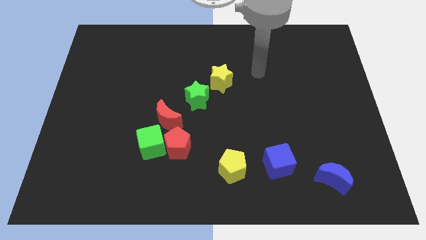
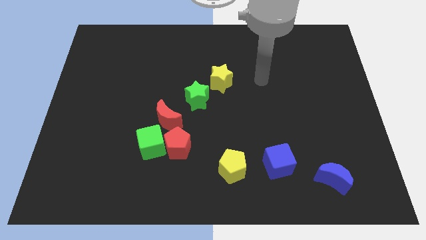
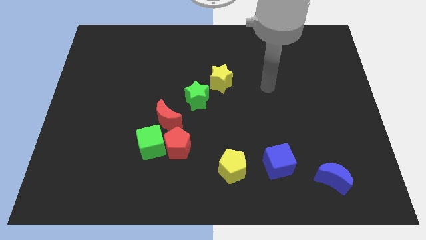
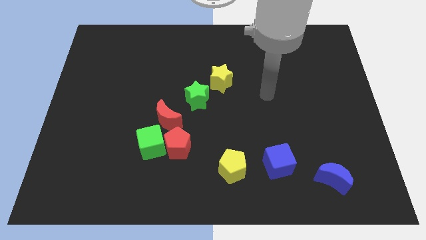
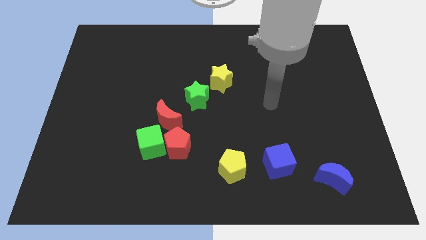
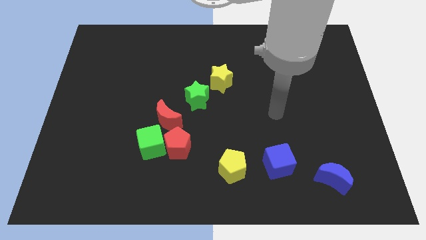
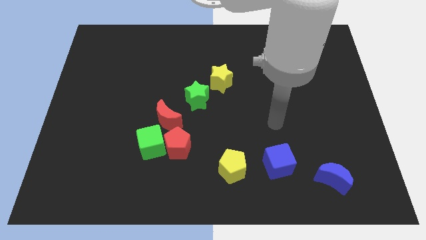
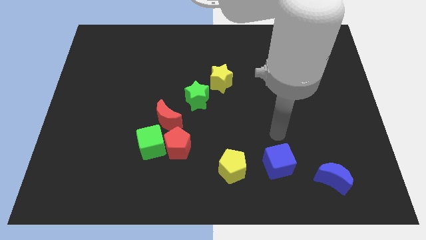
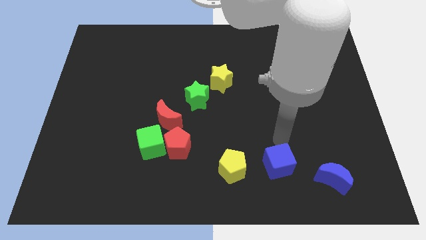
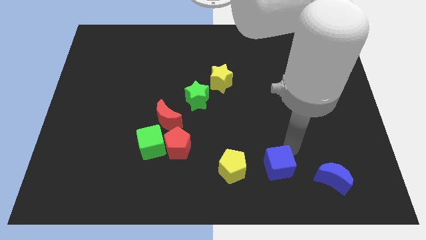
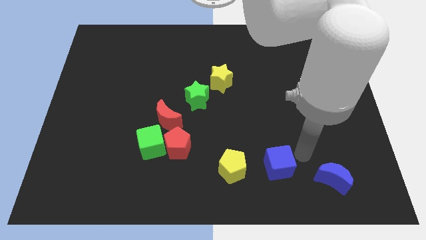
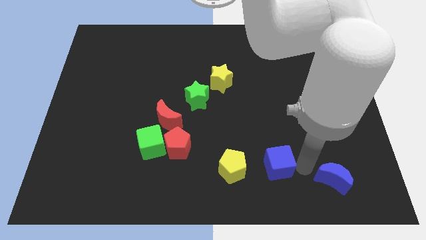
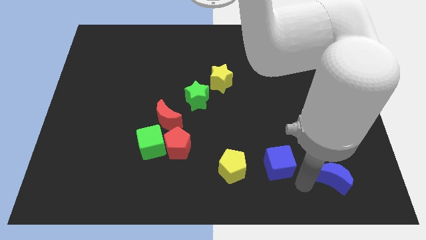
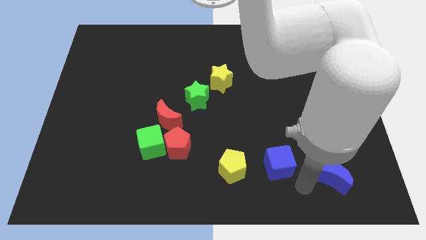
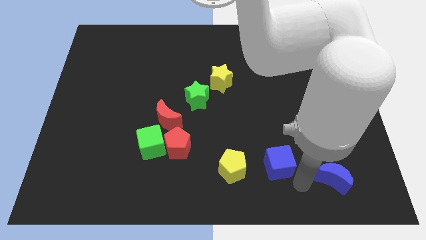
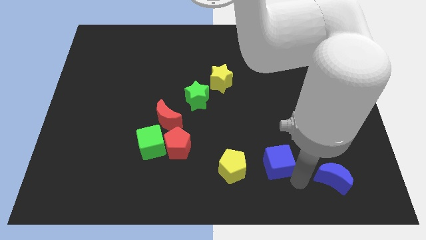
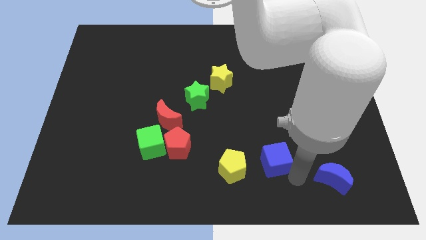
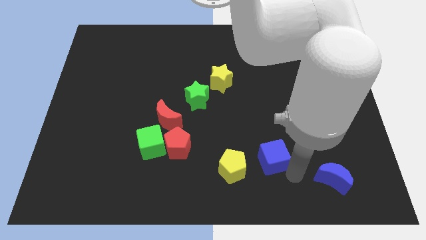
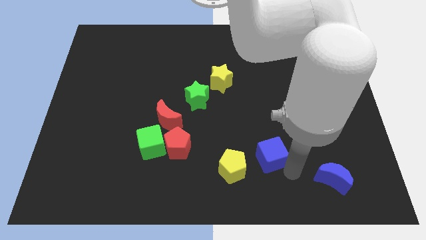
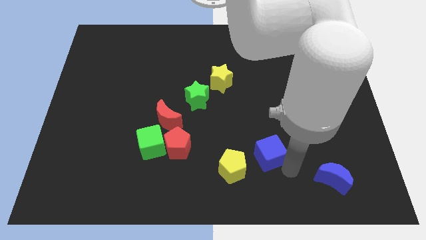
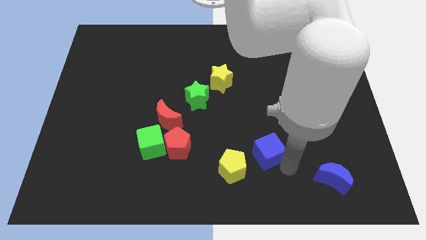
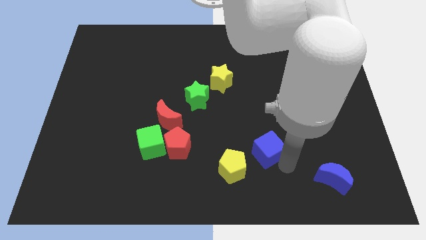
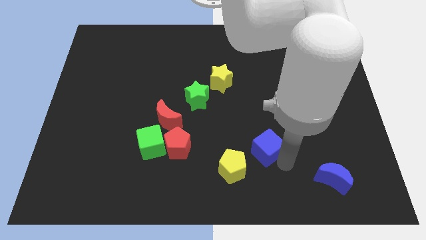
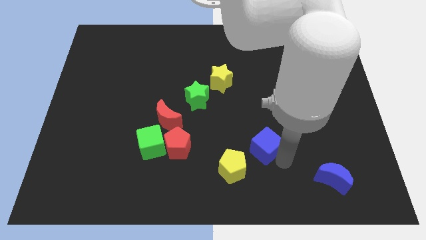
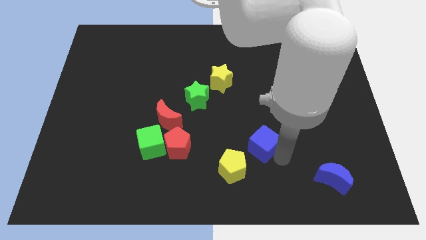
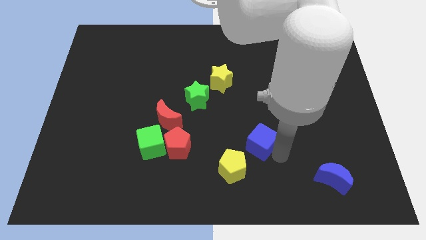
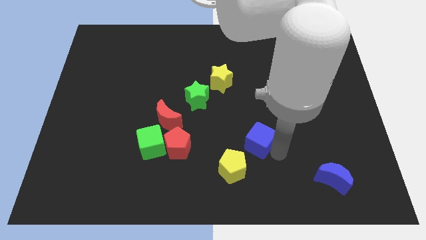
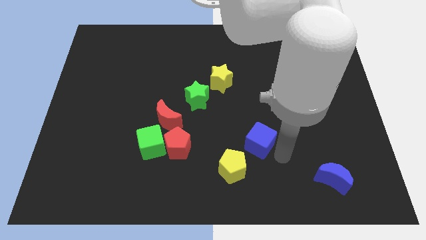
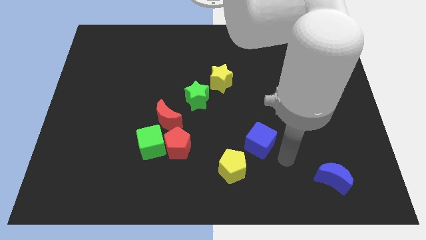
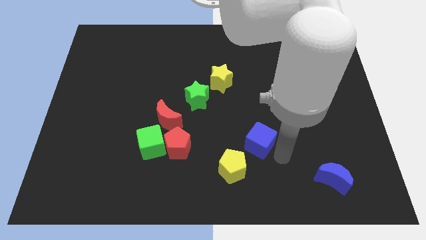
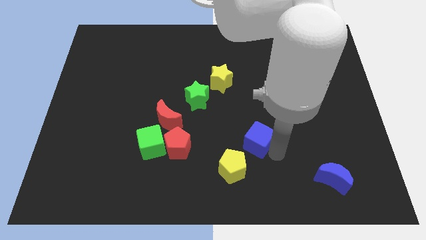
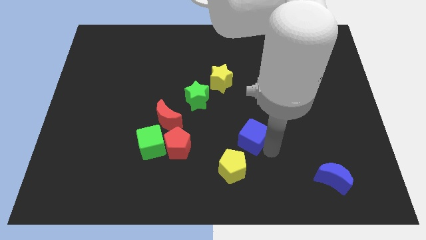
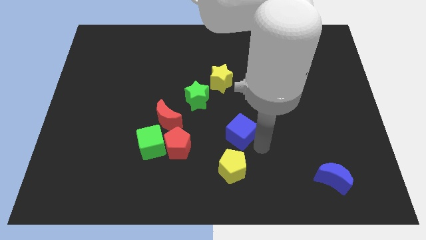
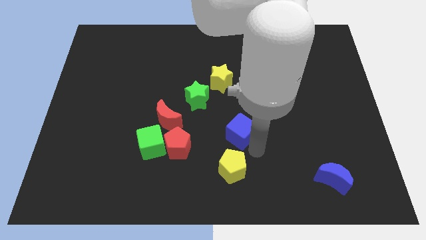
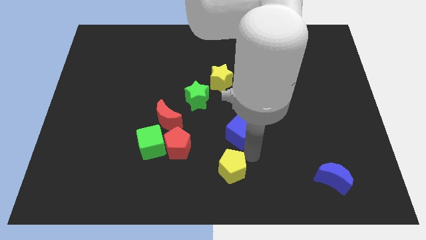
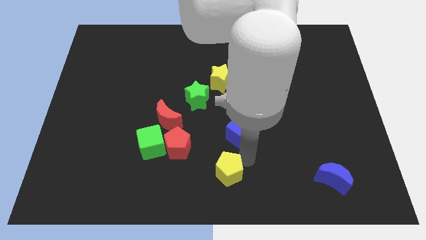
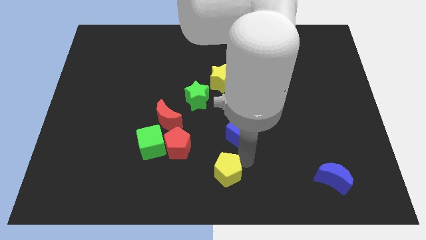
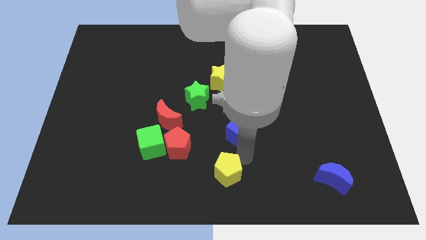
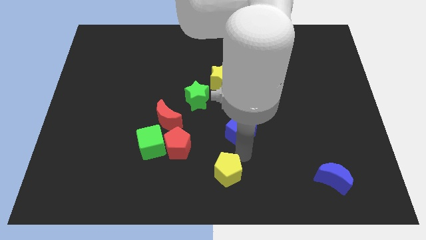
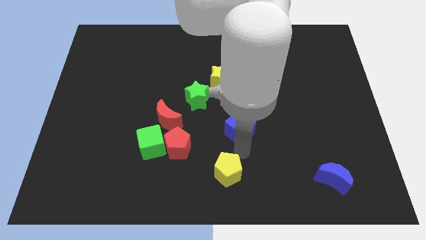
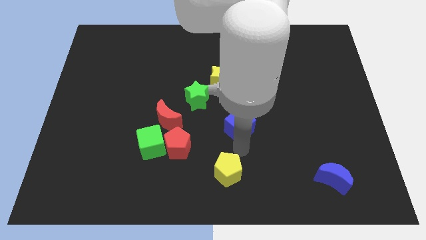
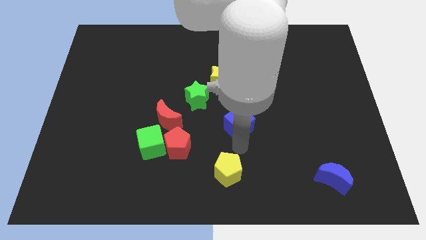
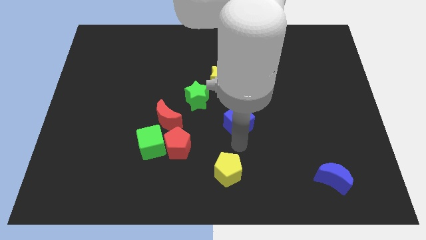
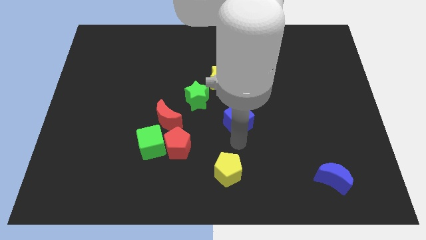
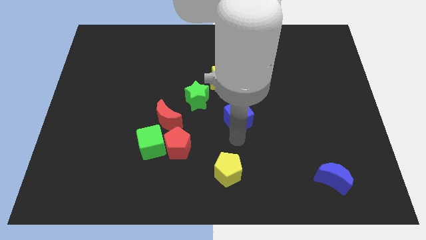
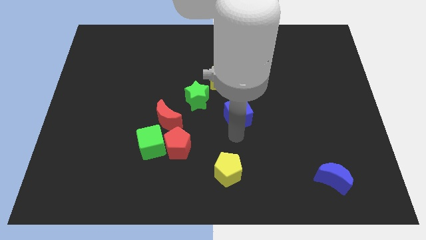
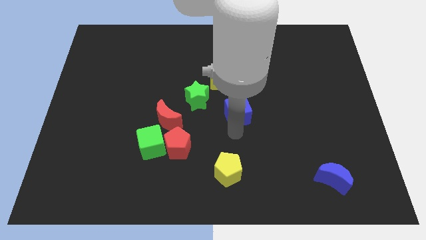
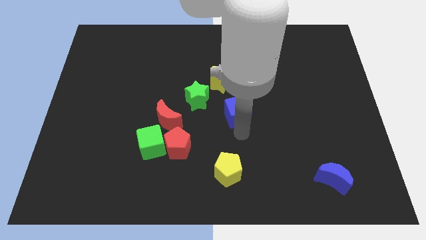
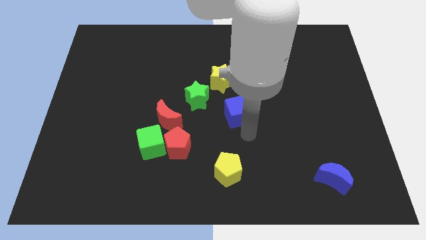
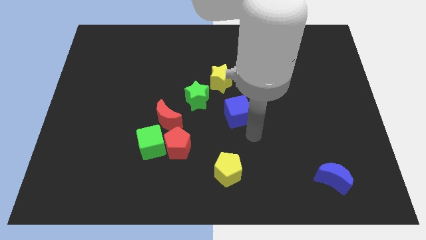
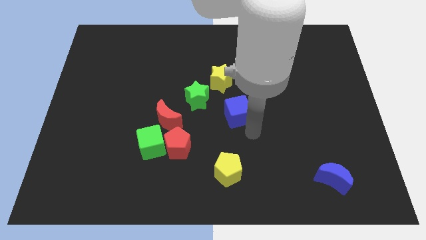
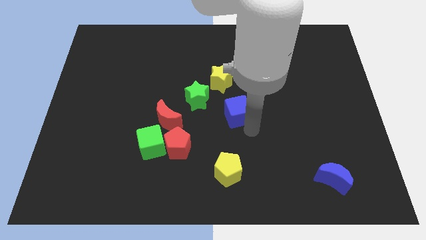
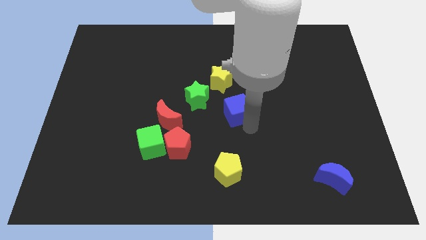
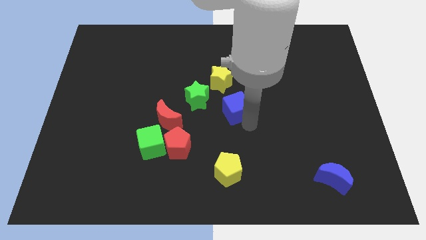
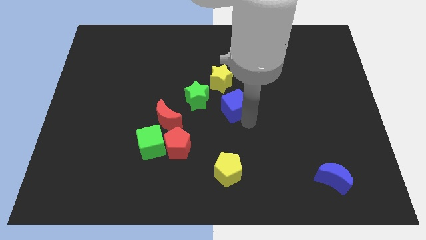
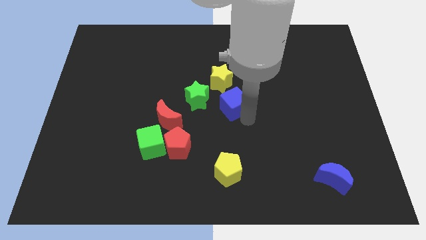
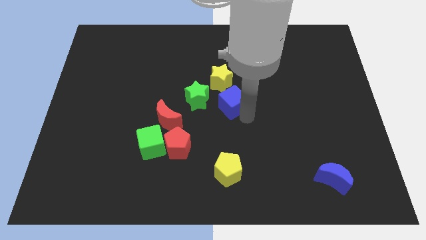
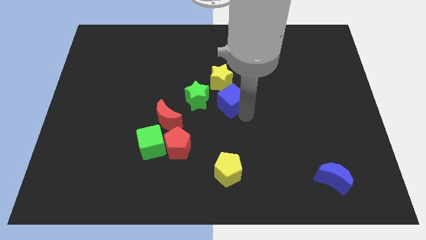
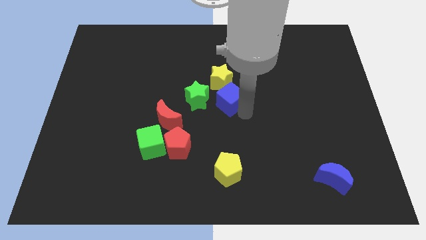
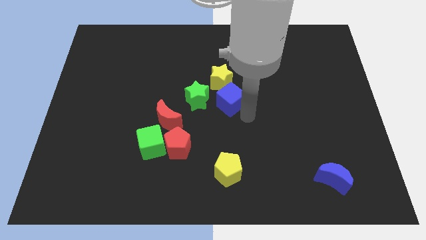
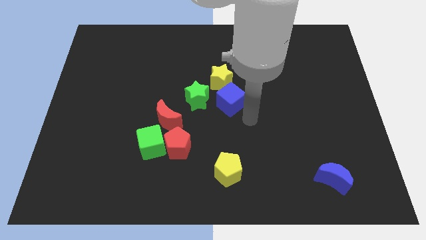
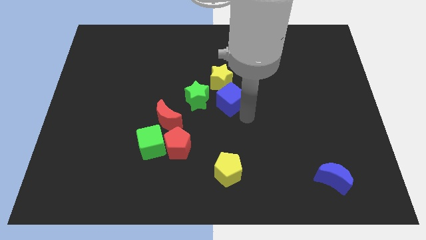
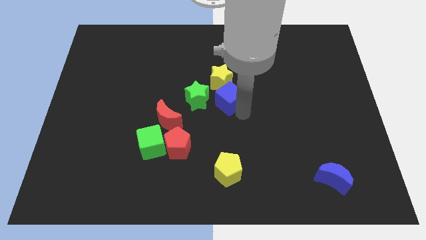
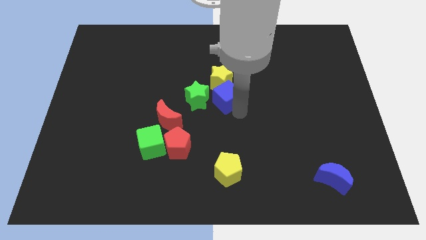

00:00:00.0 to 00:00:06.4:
push the blue cube next to the yellow star
